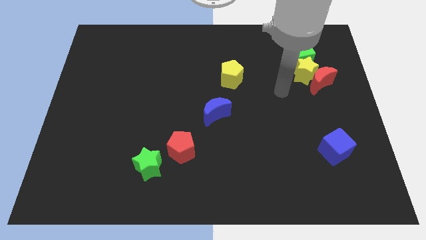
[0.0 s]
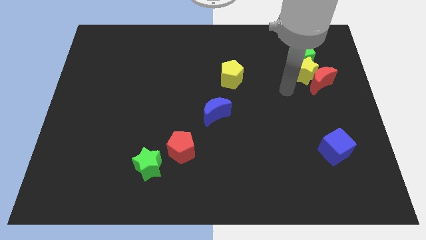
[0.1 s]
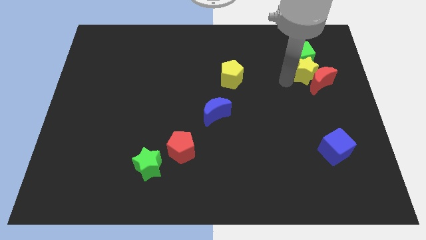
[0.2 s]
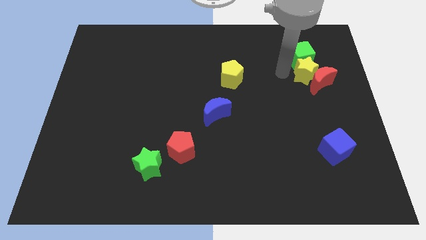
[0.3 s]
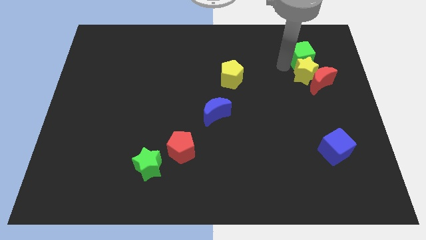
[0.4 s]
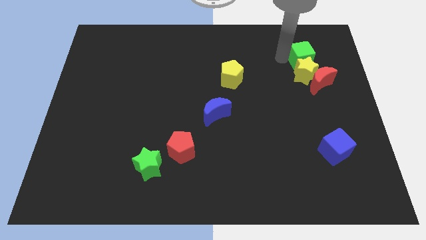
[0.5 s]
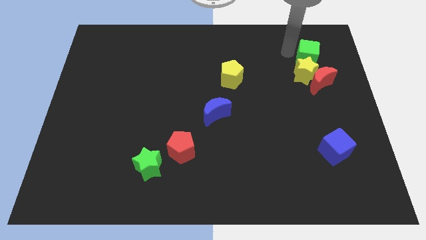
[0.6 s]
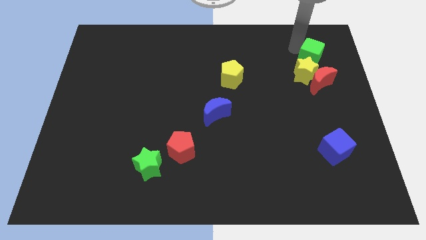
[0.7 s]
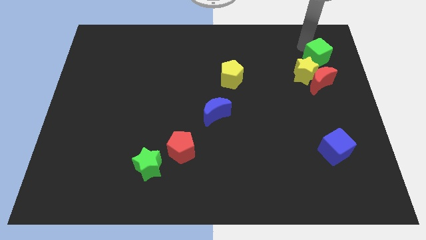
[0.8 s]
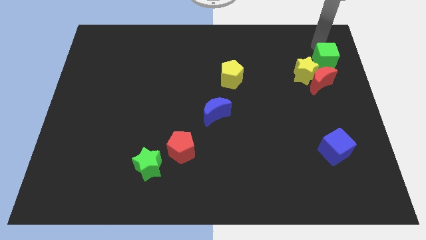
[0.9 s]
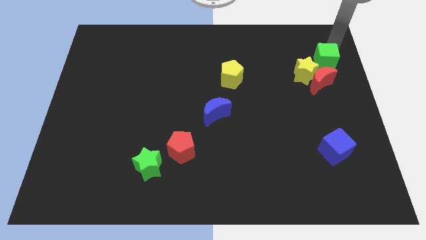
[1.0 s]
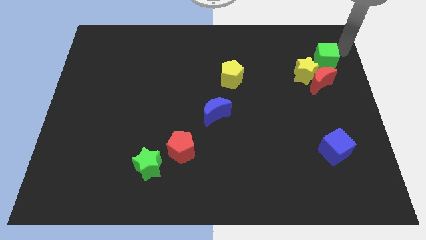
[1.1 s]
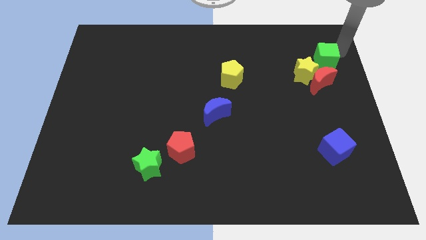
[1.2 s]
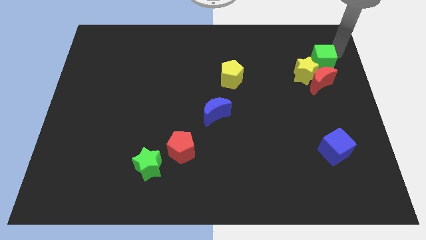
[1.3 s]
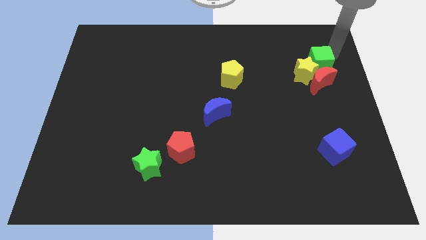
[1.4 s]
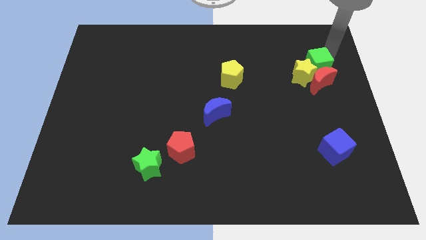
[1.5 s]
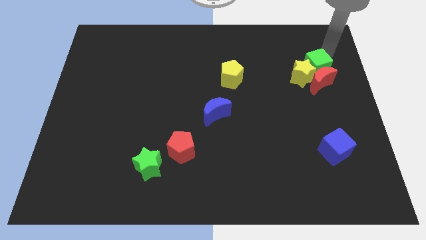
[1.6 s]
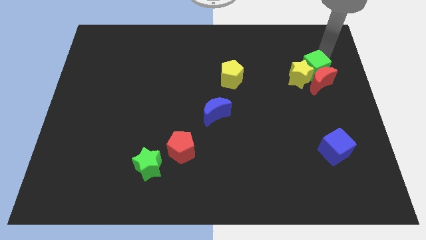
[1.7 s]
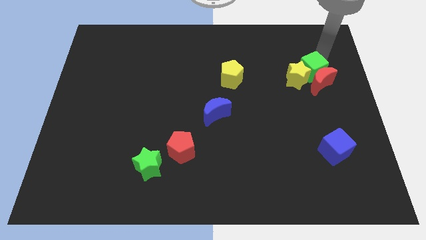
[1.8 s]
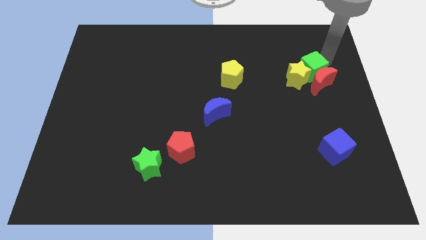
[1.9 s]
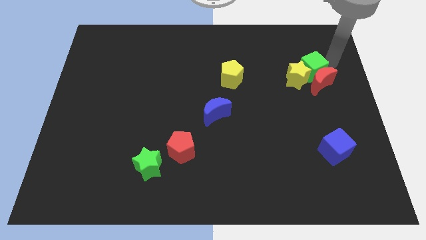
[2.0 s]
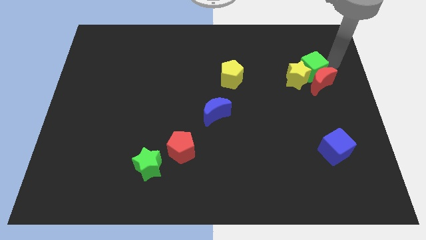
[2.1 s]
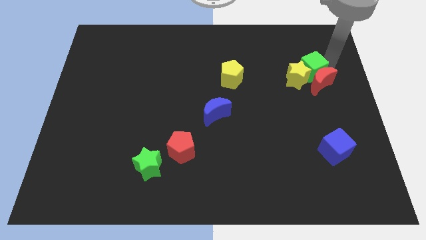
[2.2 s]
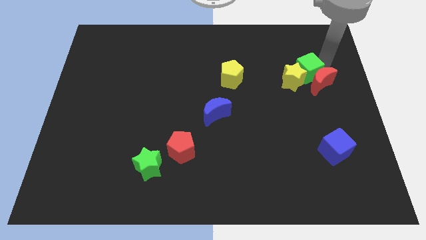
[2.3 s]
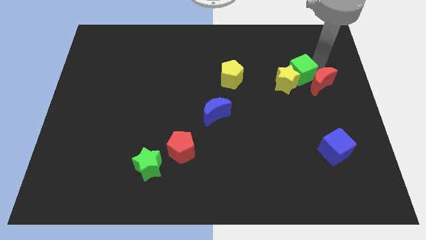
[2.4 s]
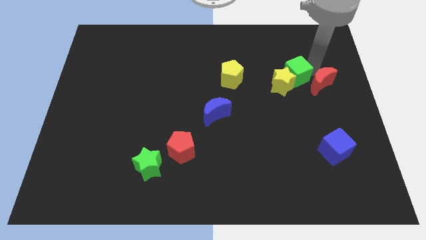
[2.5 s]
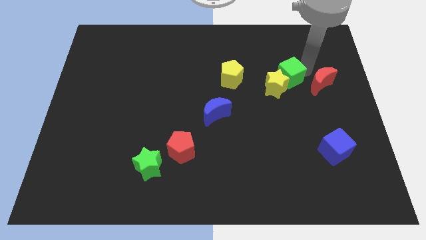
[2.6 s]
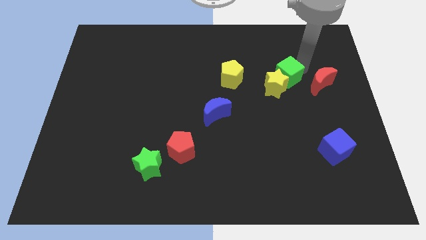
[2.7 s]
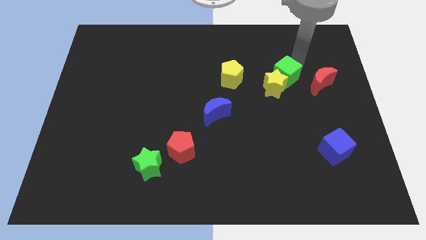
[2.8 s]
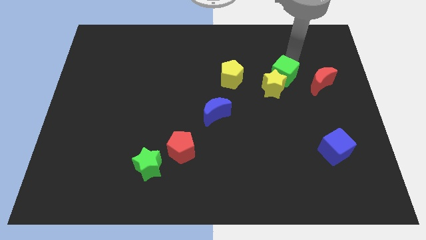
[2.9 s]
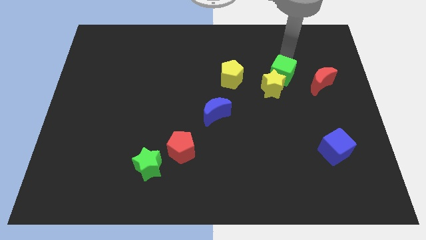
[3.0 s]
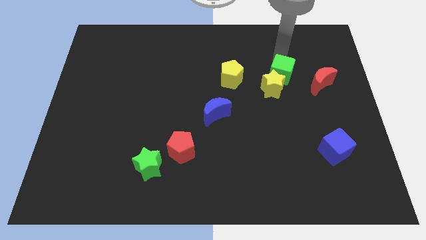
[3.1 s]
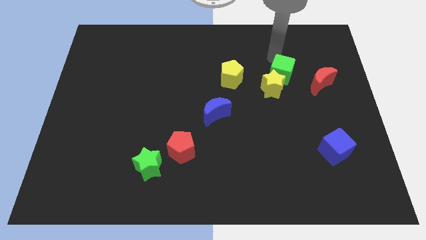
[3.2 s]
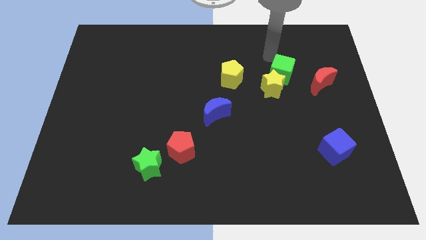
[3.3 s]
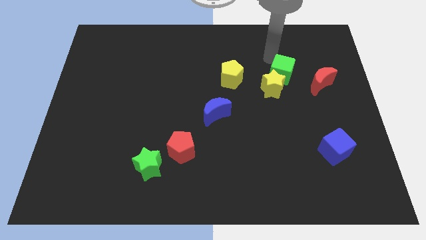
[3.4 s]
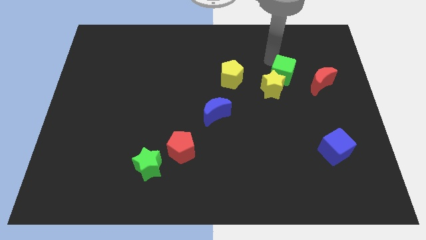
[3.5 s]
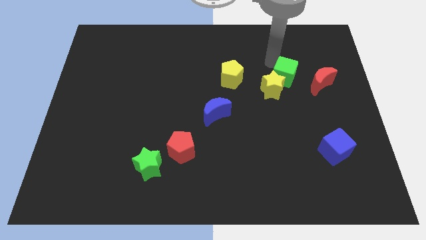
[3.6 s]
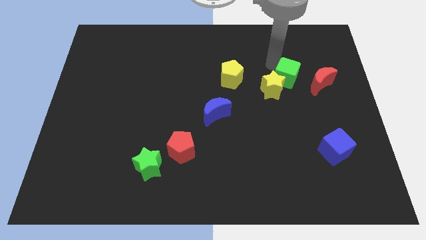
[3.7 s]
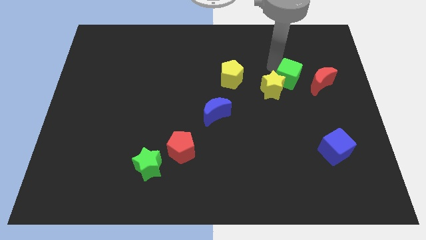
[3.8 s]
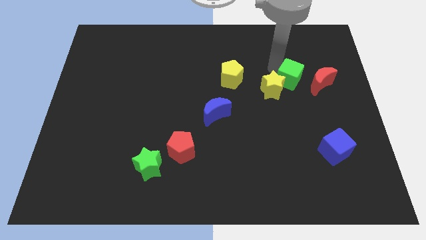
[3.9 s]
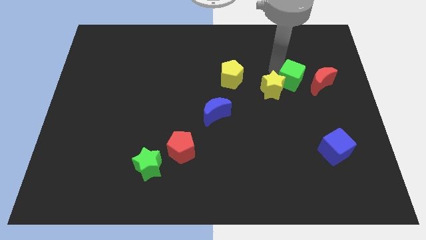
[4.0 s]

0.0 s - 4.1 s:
move the green cube downwards a bit

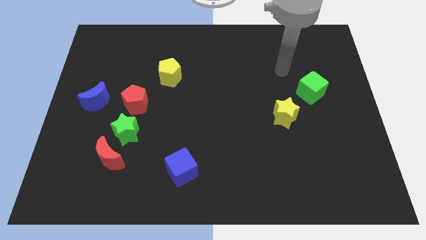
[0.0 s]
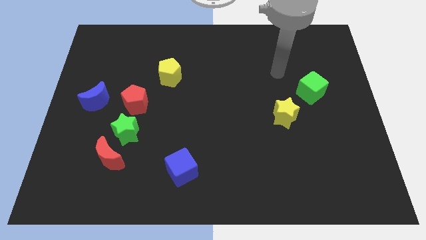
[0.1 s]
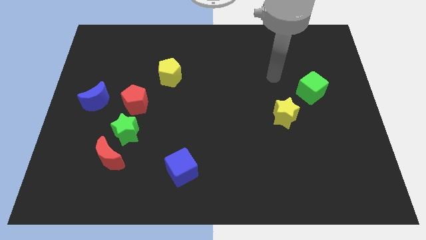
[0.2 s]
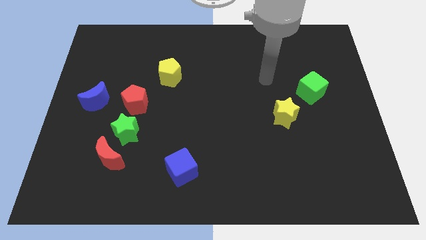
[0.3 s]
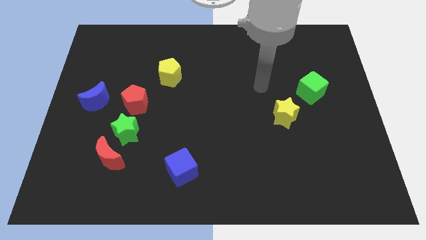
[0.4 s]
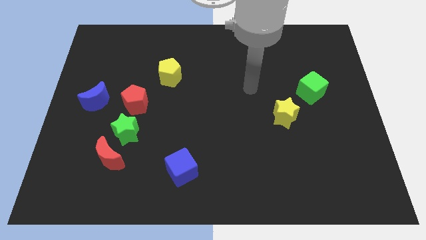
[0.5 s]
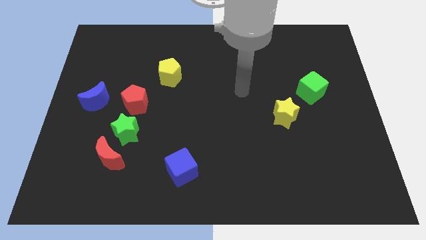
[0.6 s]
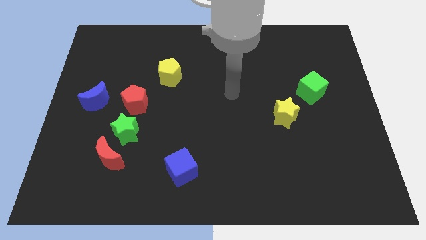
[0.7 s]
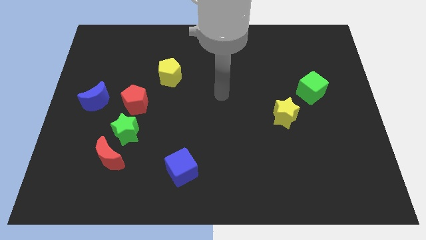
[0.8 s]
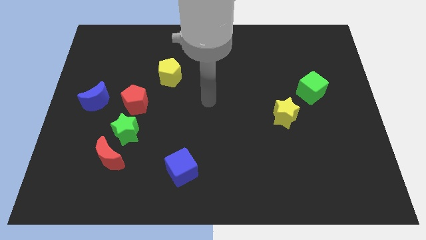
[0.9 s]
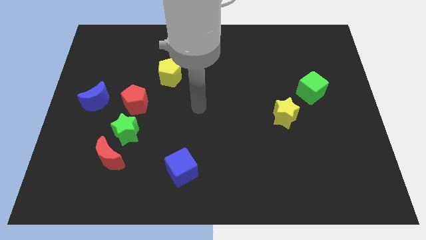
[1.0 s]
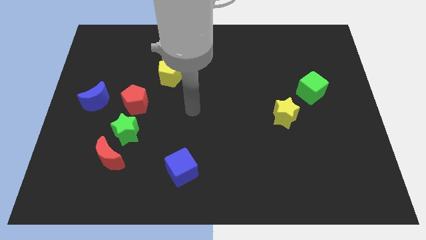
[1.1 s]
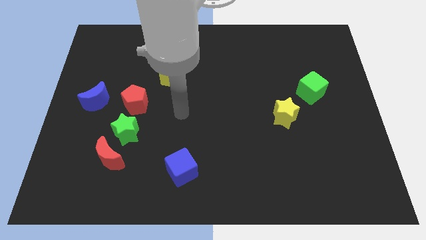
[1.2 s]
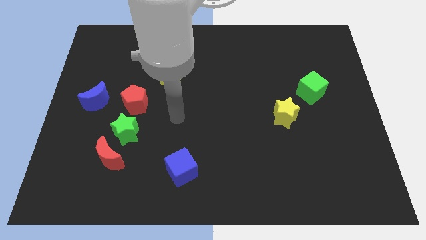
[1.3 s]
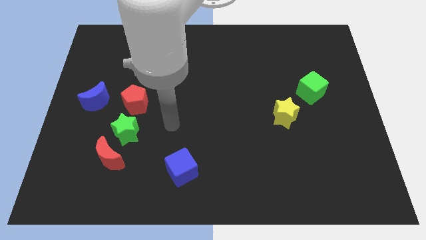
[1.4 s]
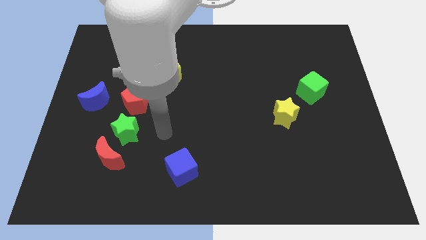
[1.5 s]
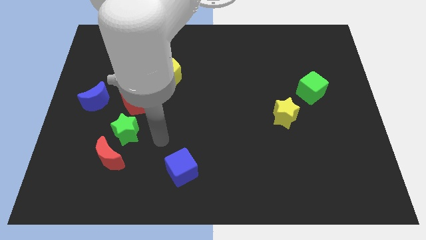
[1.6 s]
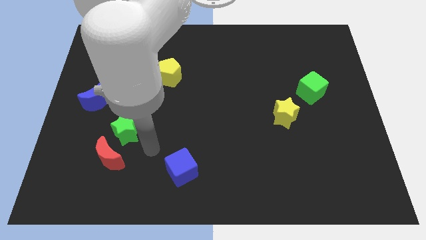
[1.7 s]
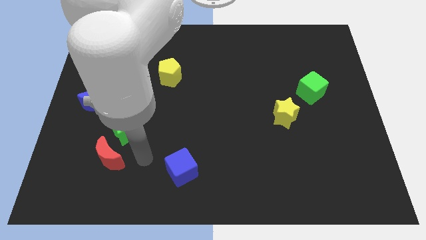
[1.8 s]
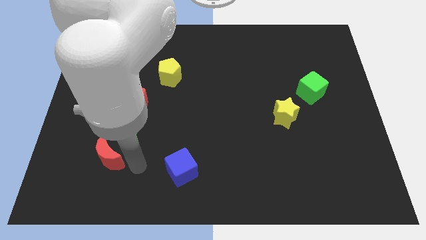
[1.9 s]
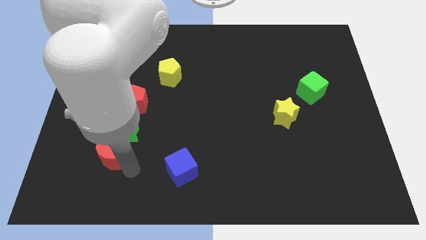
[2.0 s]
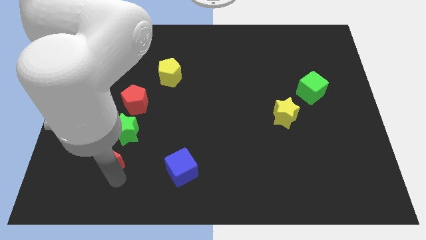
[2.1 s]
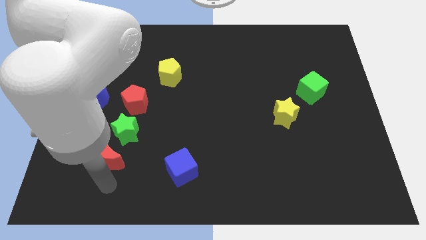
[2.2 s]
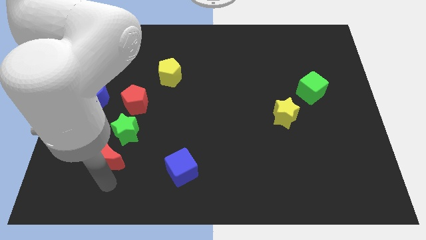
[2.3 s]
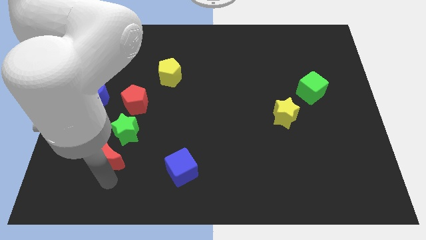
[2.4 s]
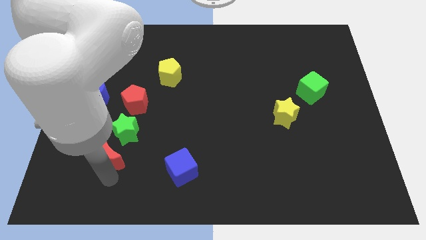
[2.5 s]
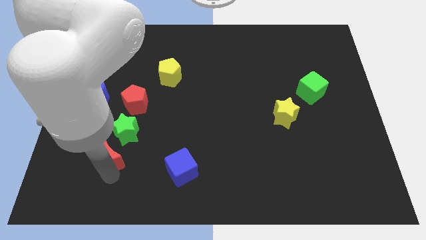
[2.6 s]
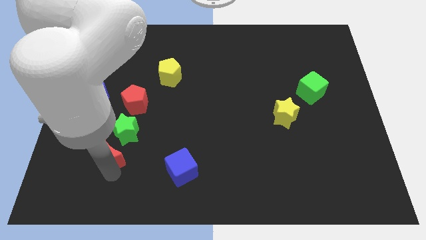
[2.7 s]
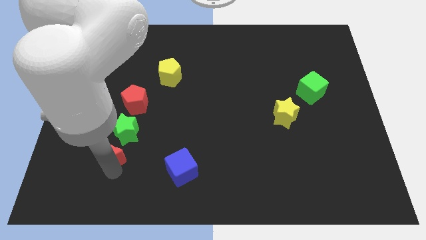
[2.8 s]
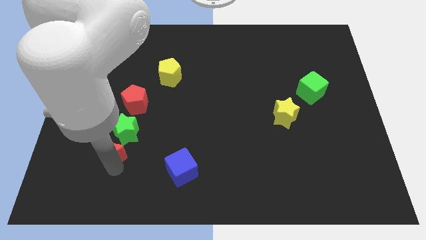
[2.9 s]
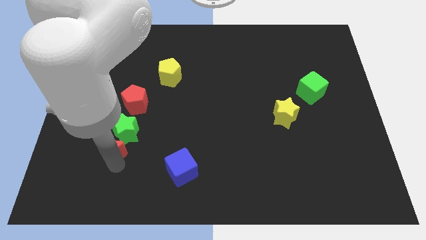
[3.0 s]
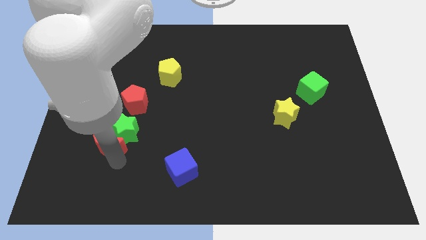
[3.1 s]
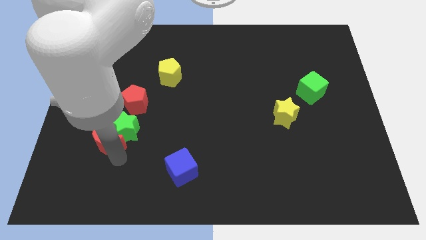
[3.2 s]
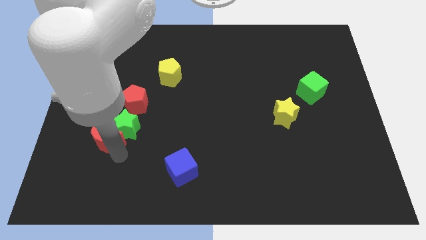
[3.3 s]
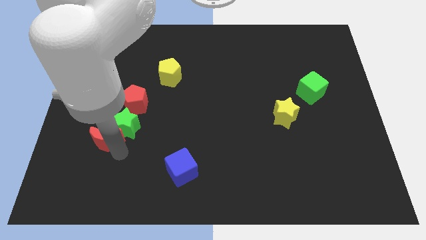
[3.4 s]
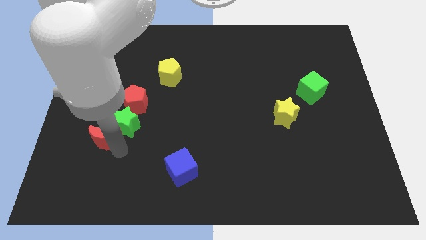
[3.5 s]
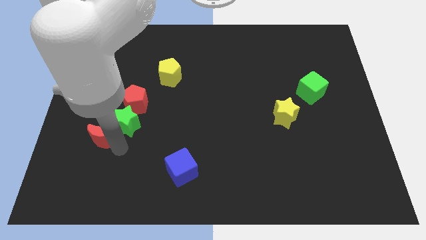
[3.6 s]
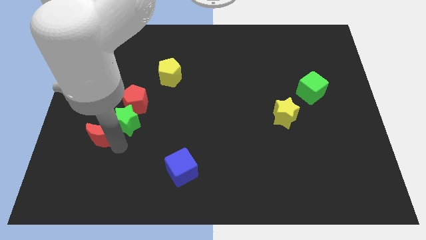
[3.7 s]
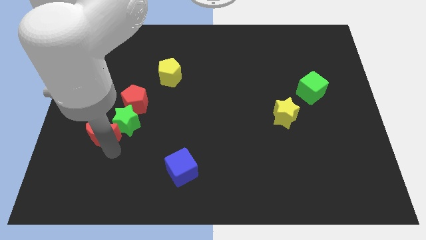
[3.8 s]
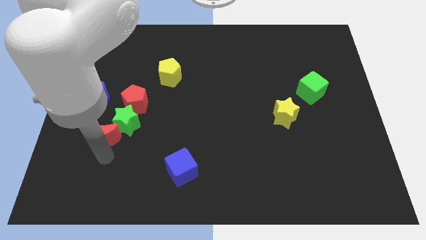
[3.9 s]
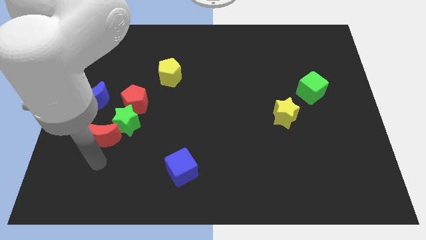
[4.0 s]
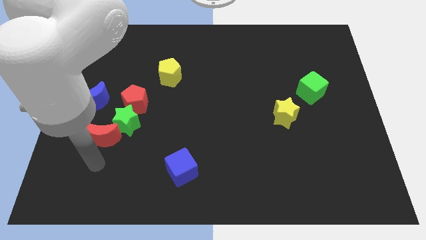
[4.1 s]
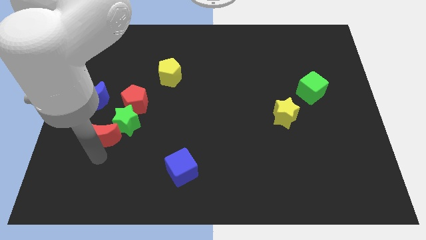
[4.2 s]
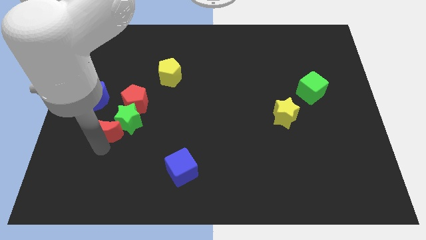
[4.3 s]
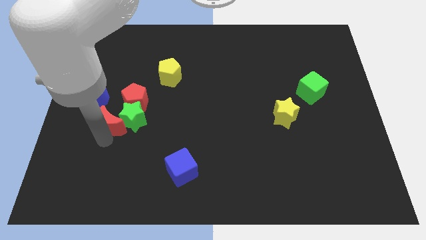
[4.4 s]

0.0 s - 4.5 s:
move the red moon upwards a little bit
